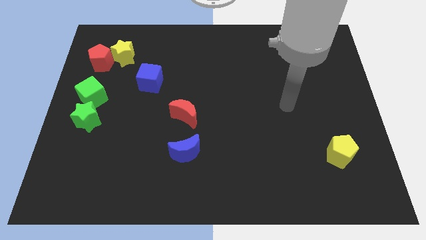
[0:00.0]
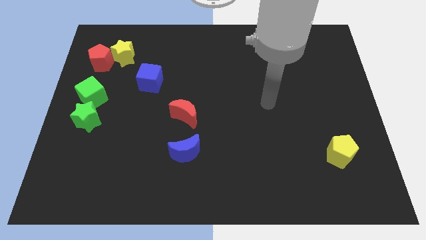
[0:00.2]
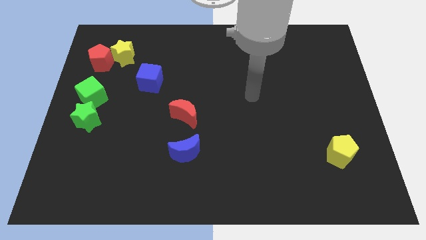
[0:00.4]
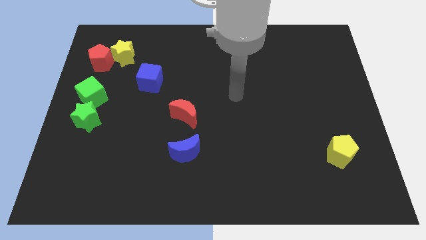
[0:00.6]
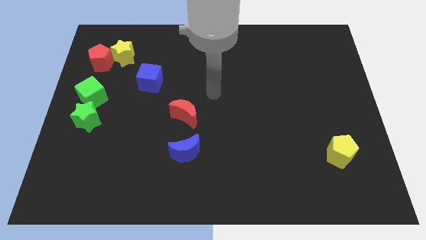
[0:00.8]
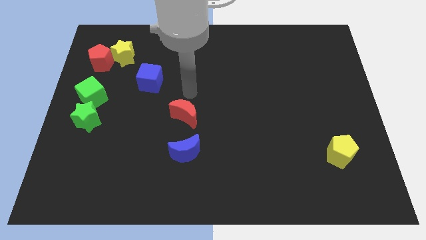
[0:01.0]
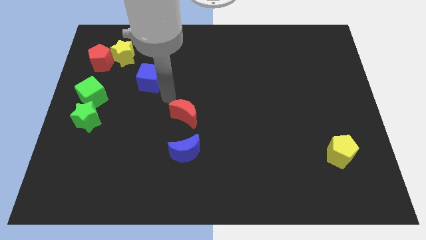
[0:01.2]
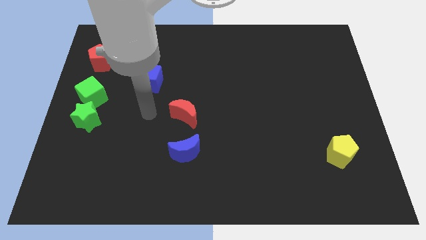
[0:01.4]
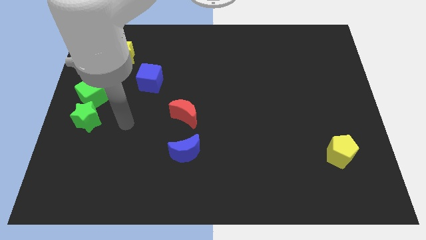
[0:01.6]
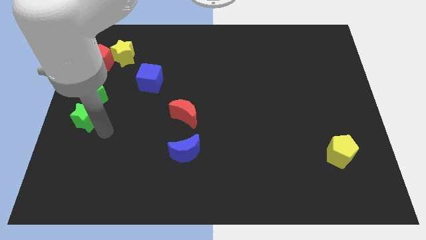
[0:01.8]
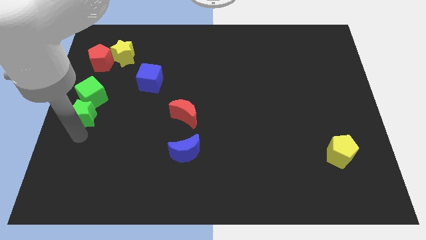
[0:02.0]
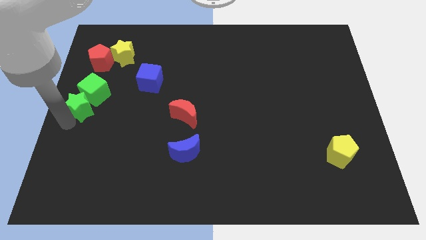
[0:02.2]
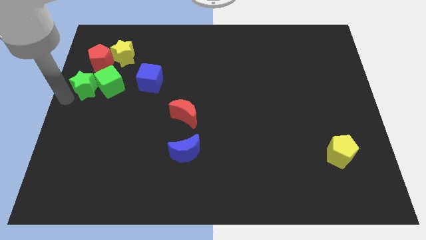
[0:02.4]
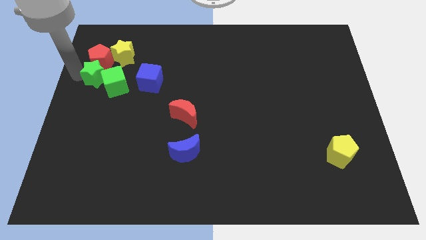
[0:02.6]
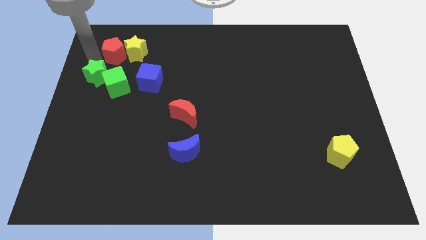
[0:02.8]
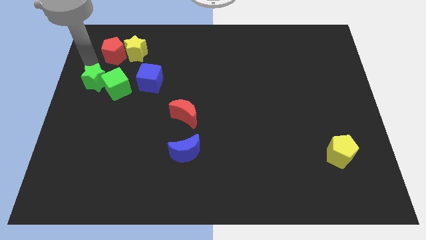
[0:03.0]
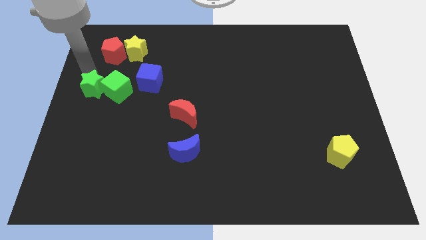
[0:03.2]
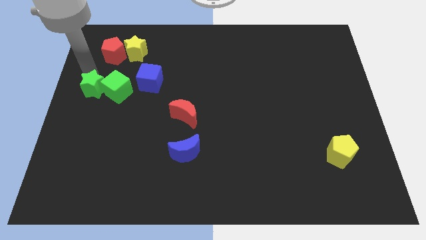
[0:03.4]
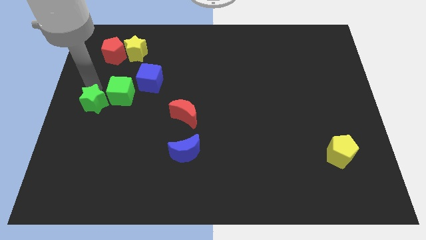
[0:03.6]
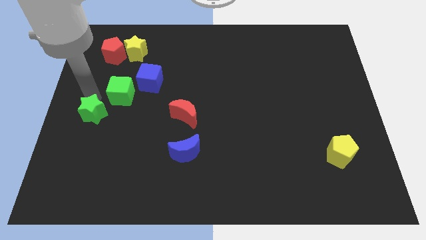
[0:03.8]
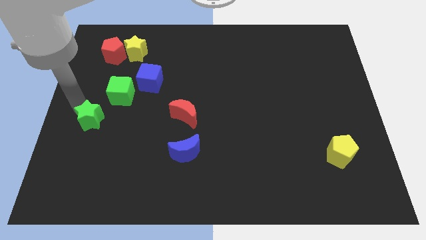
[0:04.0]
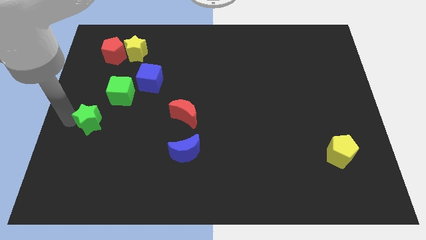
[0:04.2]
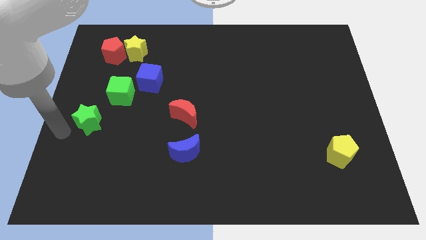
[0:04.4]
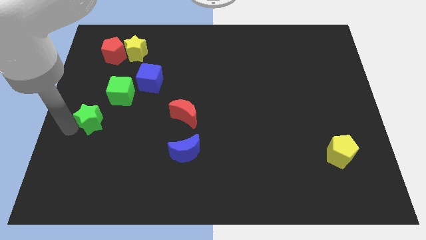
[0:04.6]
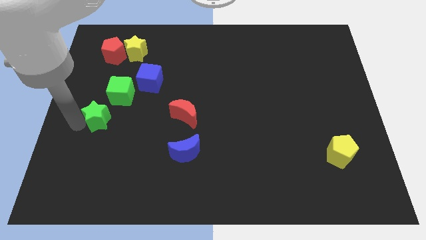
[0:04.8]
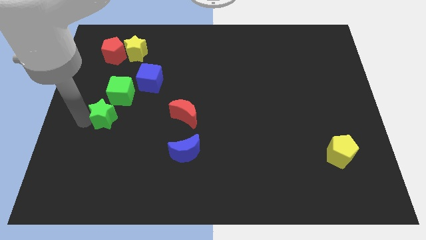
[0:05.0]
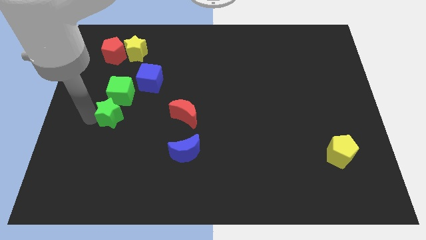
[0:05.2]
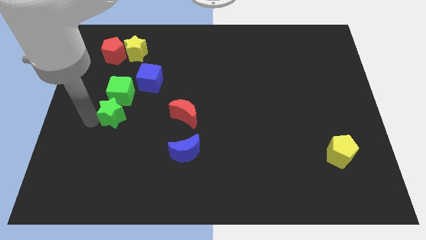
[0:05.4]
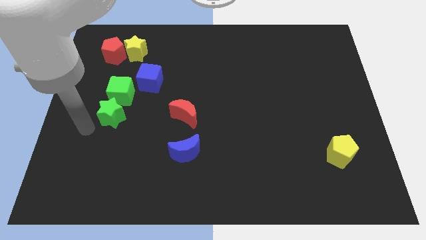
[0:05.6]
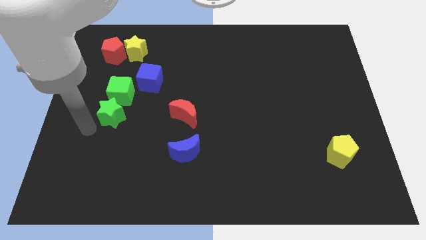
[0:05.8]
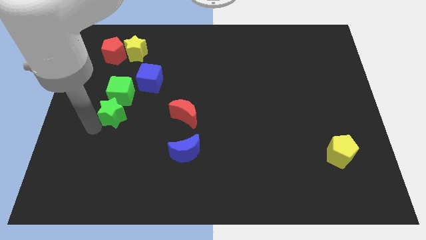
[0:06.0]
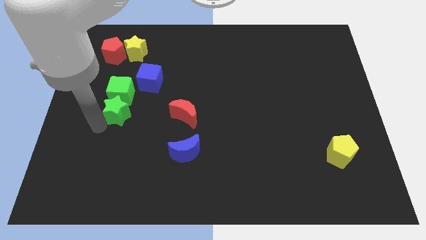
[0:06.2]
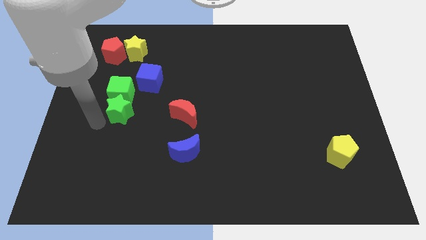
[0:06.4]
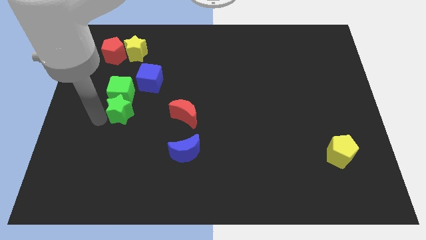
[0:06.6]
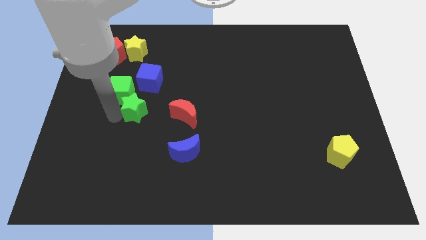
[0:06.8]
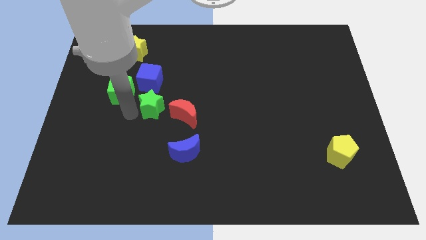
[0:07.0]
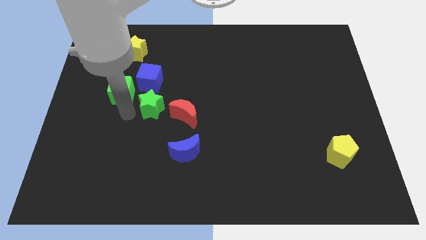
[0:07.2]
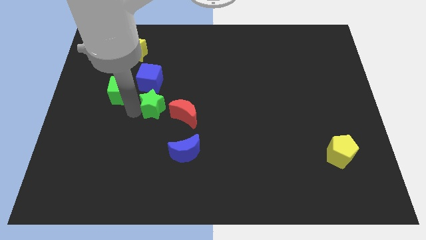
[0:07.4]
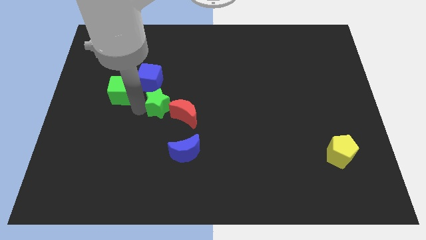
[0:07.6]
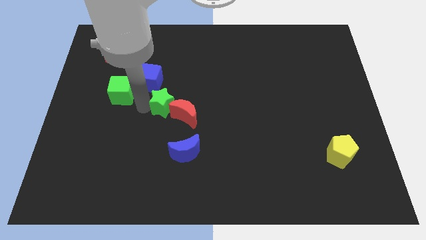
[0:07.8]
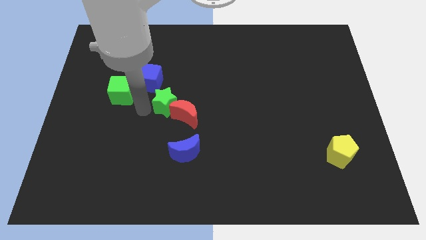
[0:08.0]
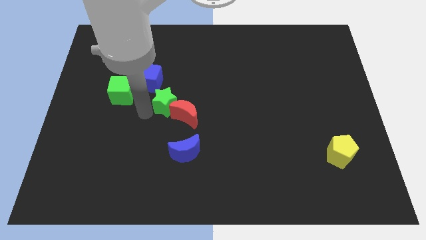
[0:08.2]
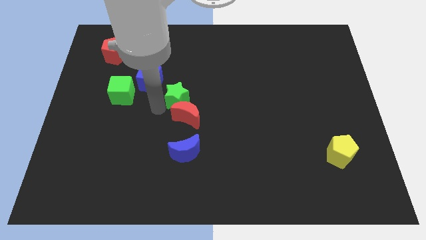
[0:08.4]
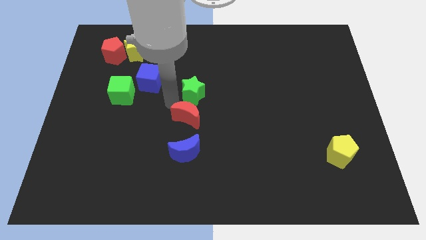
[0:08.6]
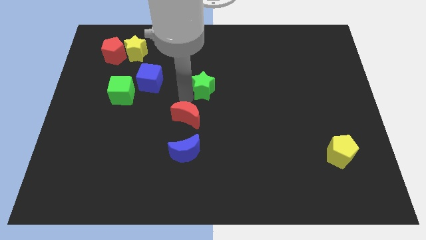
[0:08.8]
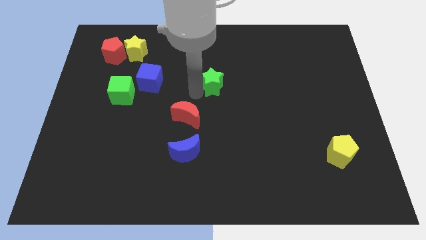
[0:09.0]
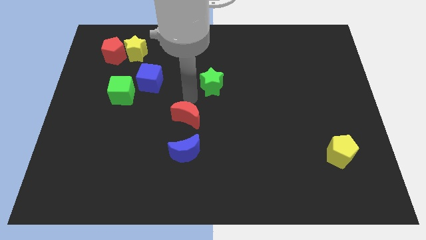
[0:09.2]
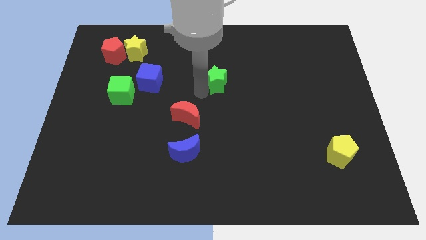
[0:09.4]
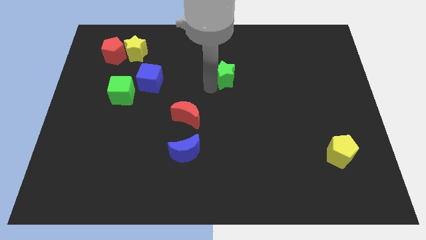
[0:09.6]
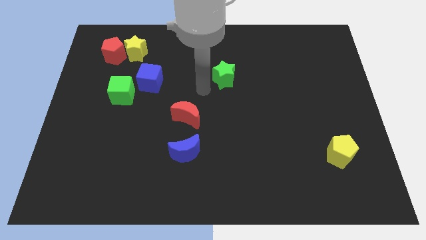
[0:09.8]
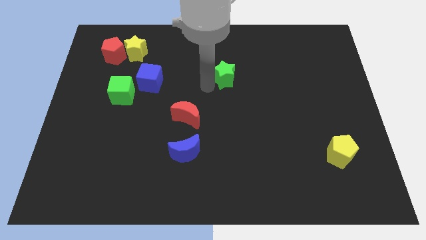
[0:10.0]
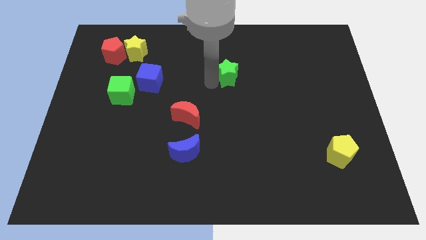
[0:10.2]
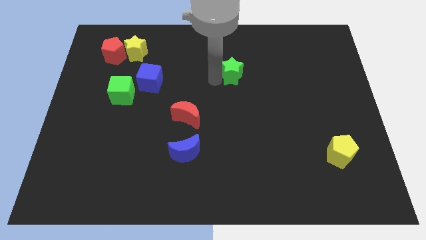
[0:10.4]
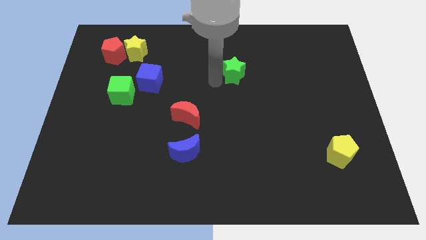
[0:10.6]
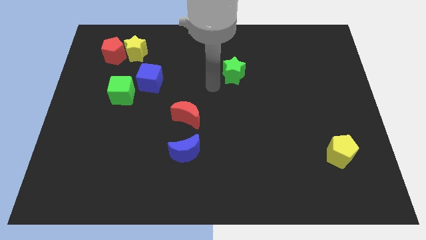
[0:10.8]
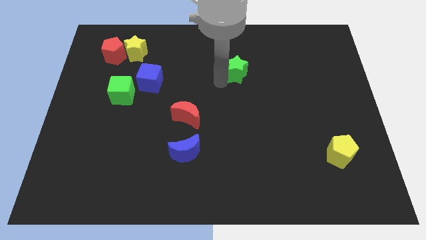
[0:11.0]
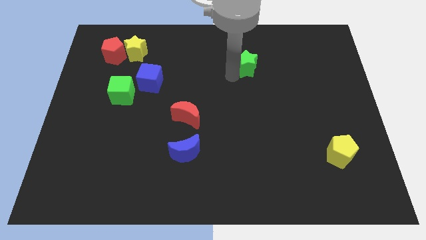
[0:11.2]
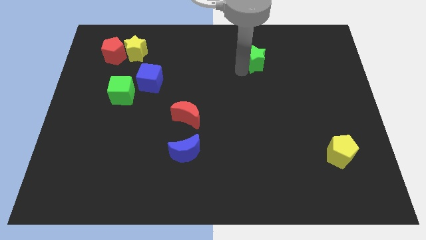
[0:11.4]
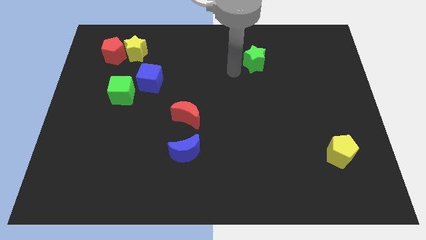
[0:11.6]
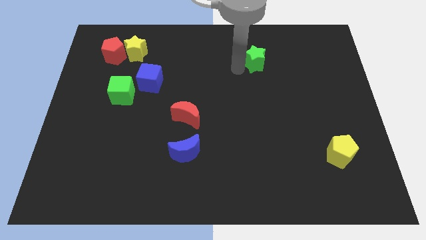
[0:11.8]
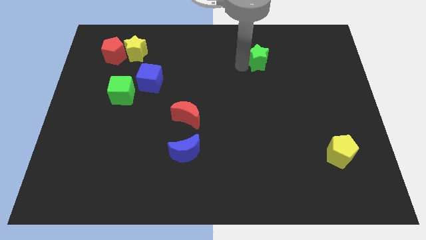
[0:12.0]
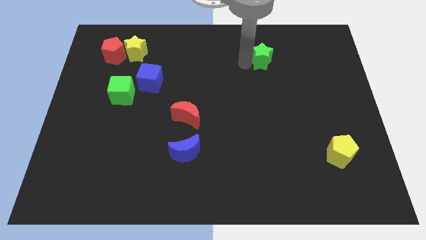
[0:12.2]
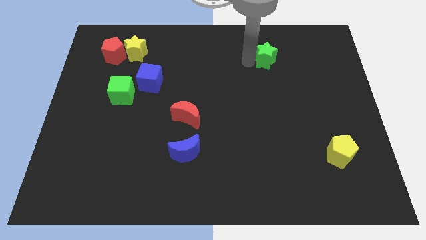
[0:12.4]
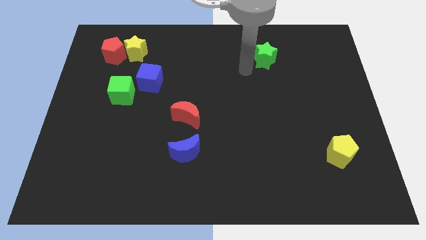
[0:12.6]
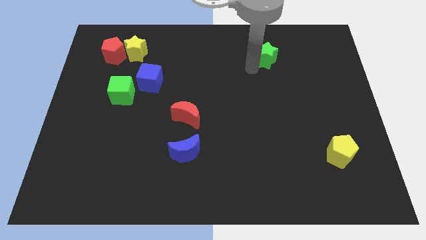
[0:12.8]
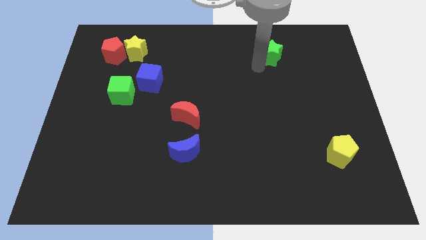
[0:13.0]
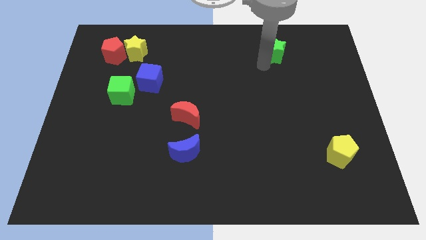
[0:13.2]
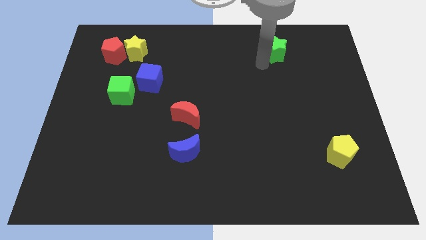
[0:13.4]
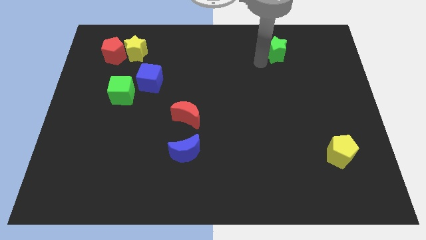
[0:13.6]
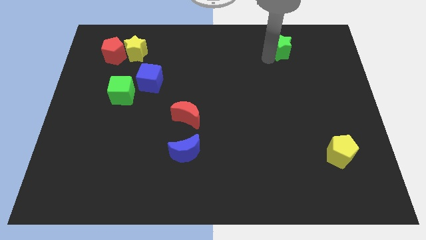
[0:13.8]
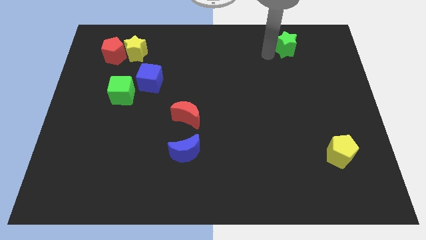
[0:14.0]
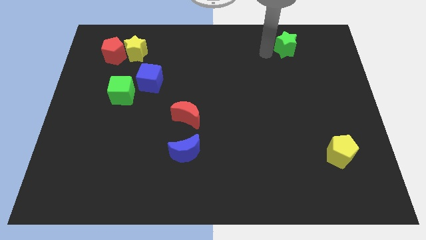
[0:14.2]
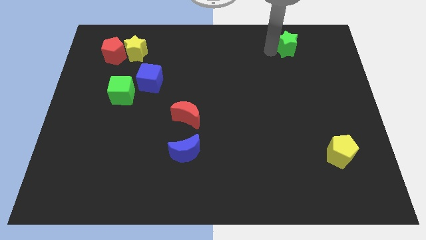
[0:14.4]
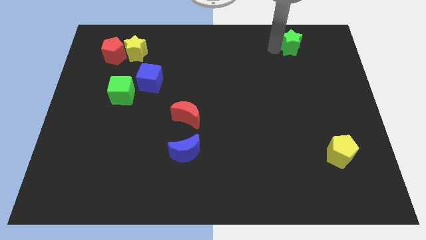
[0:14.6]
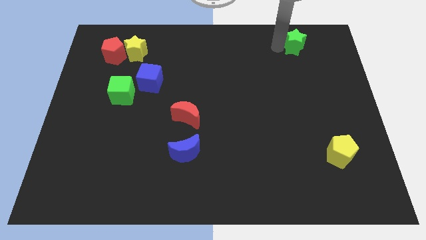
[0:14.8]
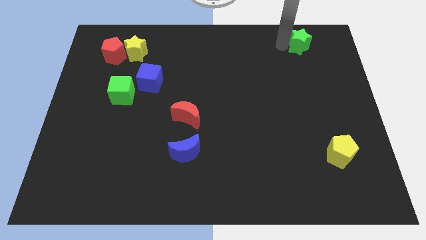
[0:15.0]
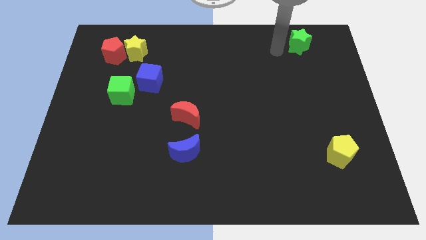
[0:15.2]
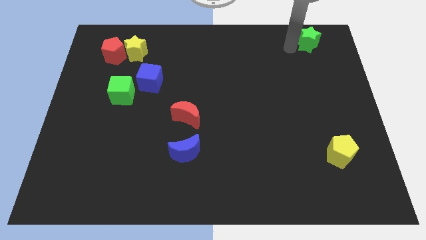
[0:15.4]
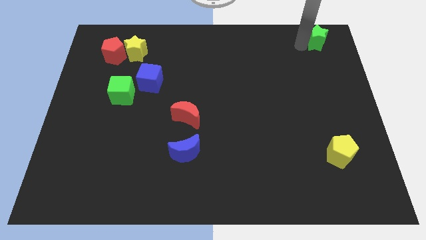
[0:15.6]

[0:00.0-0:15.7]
put the green star to the top right corner
